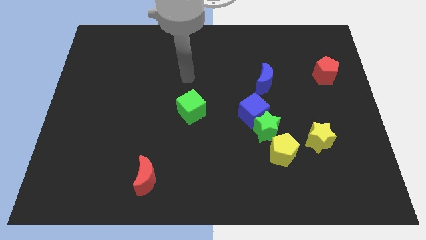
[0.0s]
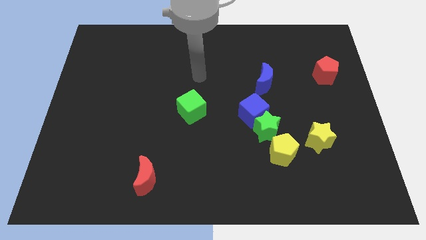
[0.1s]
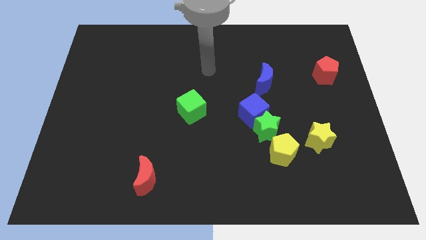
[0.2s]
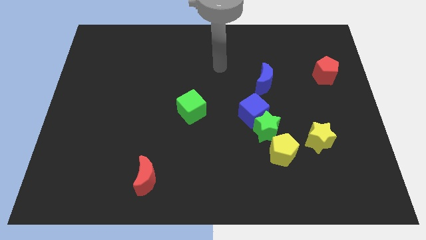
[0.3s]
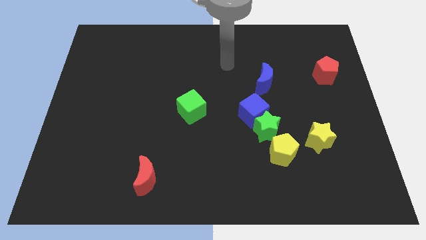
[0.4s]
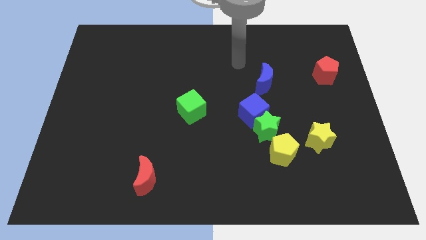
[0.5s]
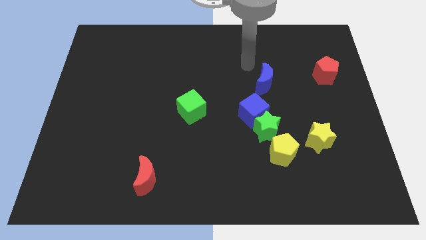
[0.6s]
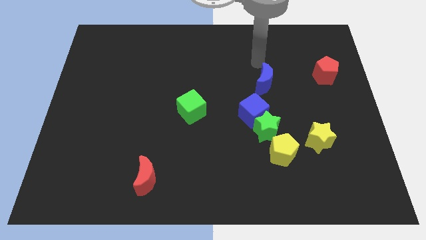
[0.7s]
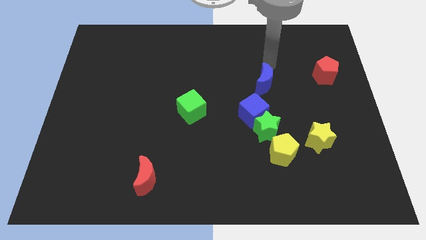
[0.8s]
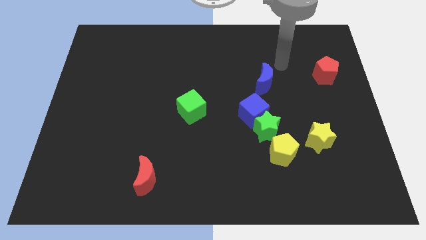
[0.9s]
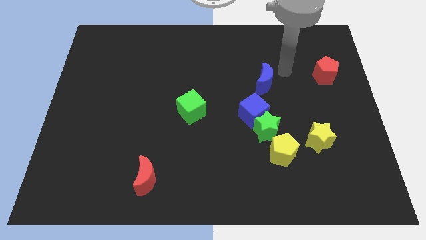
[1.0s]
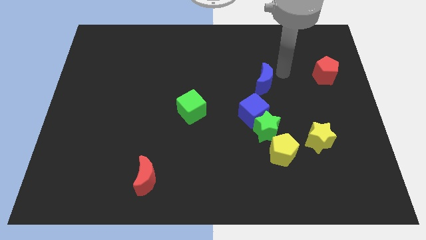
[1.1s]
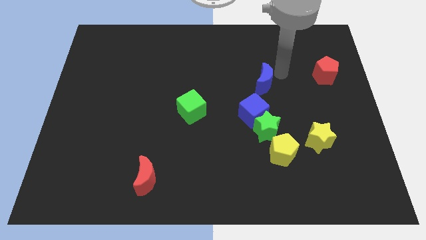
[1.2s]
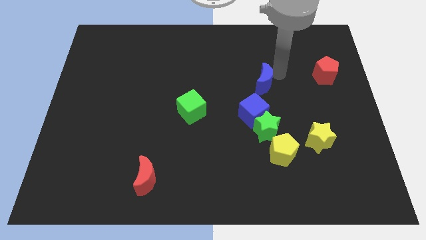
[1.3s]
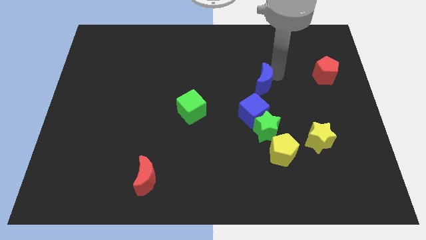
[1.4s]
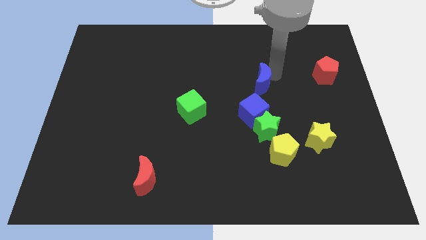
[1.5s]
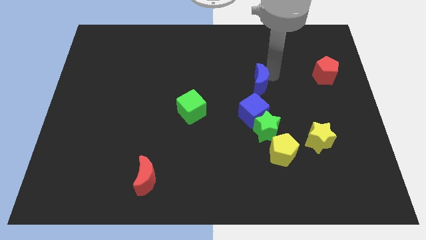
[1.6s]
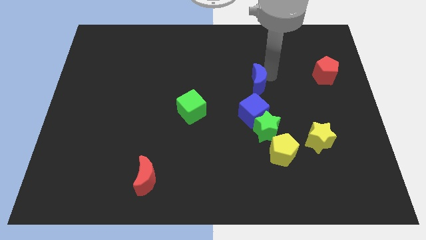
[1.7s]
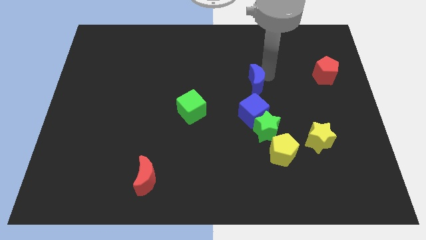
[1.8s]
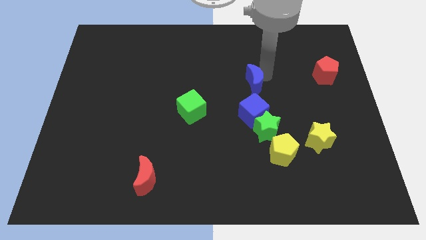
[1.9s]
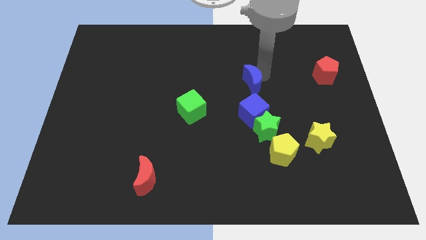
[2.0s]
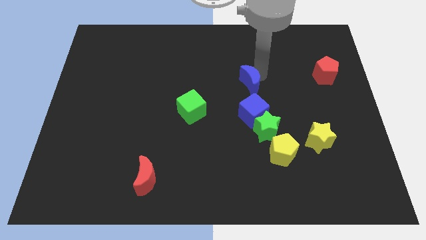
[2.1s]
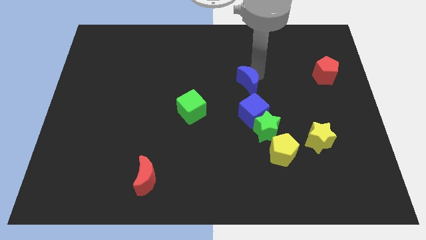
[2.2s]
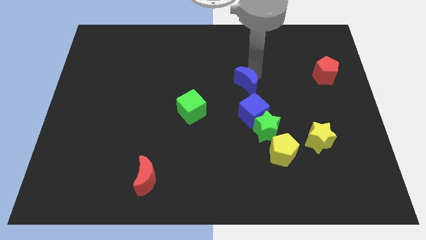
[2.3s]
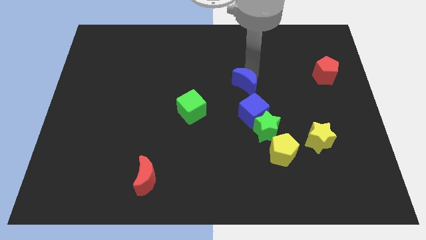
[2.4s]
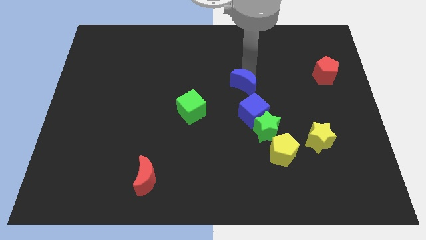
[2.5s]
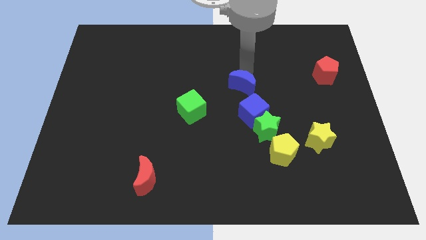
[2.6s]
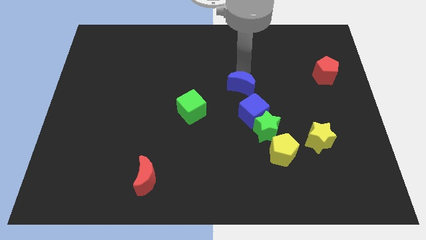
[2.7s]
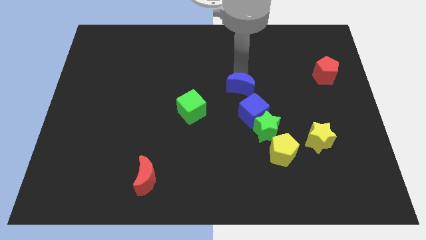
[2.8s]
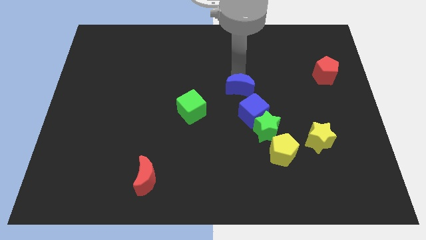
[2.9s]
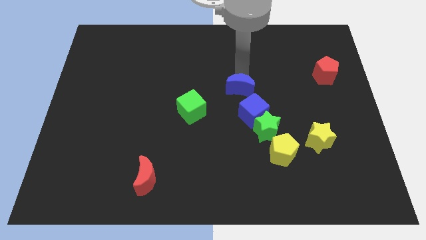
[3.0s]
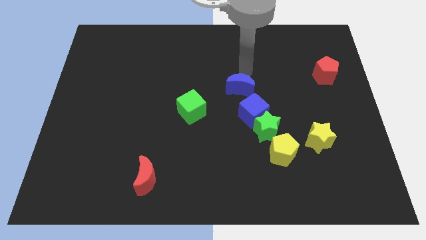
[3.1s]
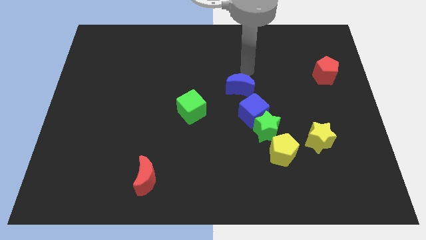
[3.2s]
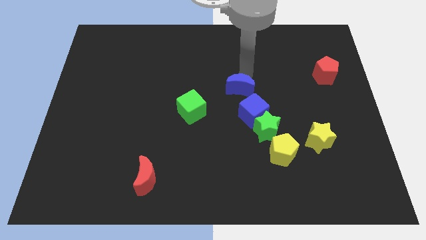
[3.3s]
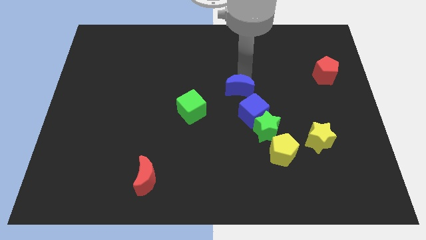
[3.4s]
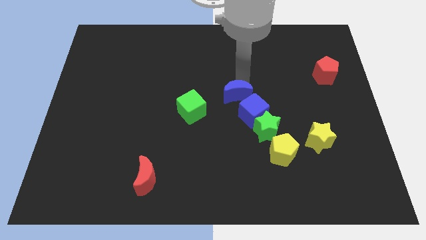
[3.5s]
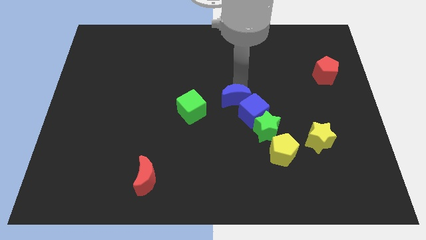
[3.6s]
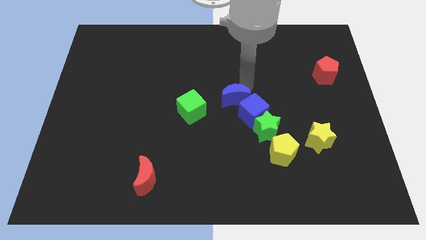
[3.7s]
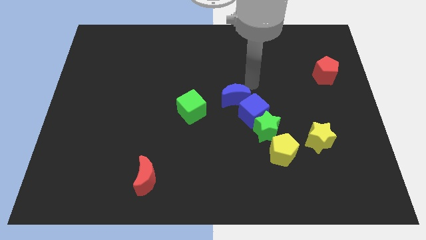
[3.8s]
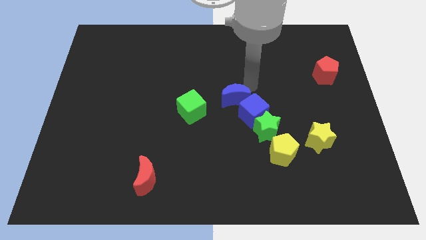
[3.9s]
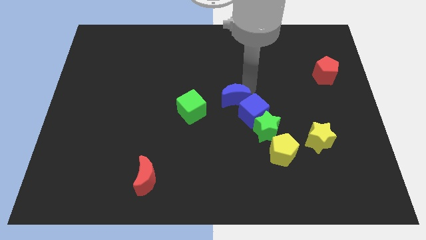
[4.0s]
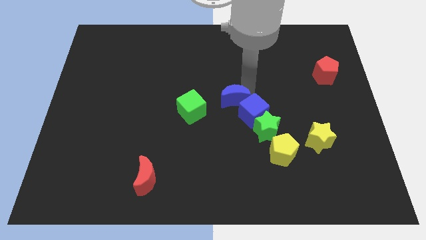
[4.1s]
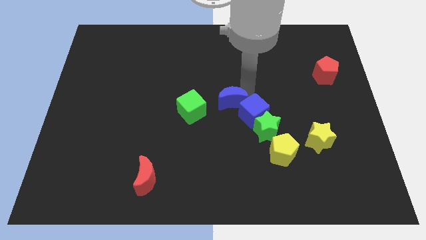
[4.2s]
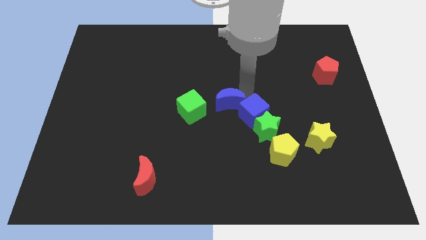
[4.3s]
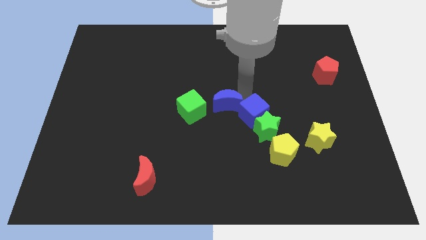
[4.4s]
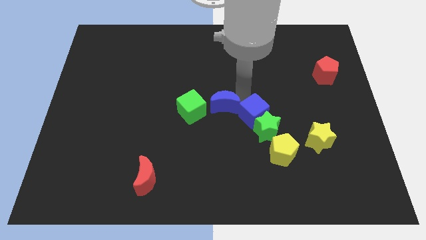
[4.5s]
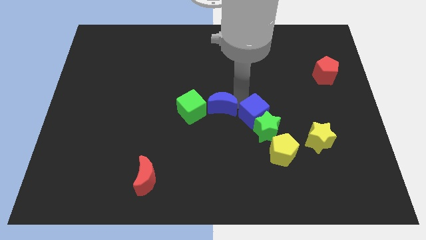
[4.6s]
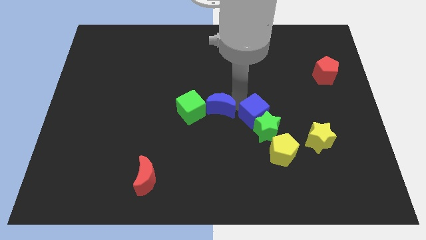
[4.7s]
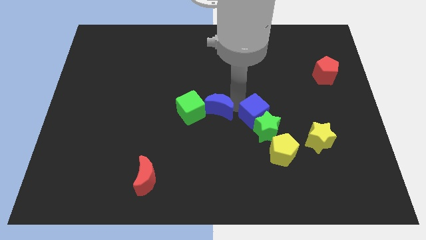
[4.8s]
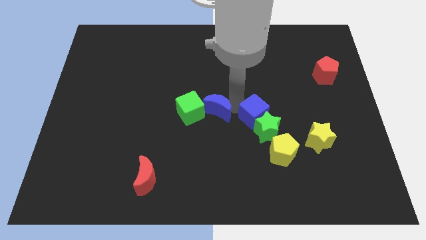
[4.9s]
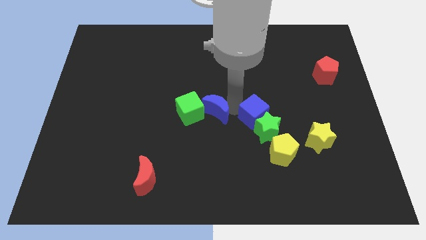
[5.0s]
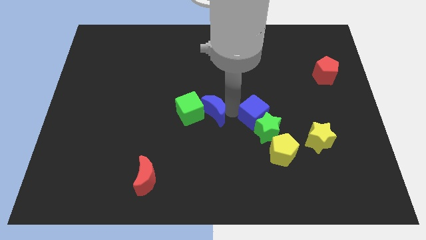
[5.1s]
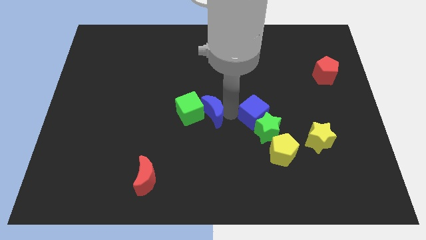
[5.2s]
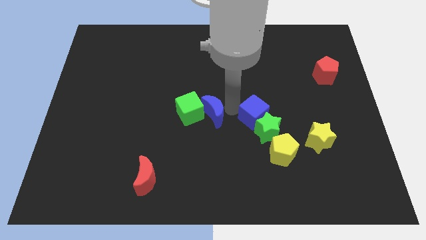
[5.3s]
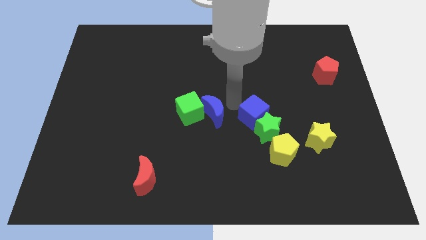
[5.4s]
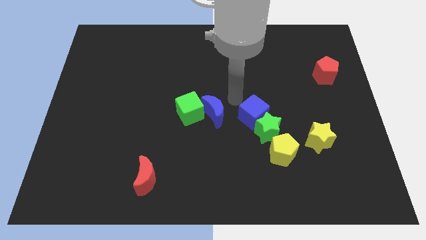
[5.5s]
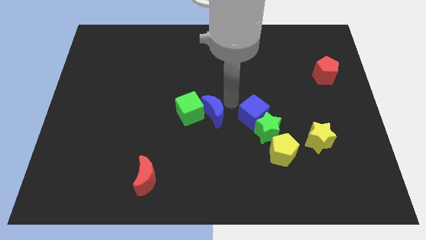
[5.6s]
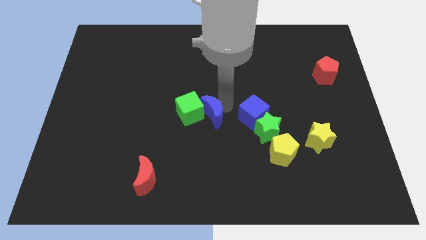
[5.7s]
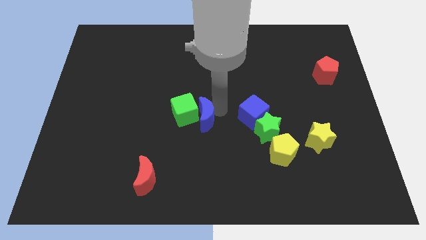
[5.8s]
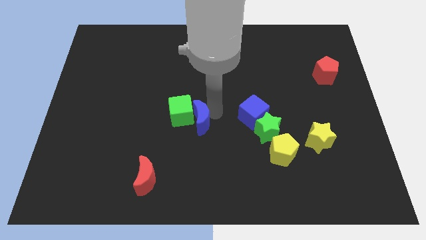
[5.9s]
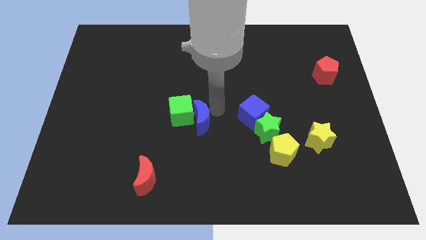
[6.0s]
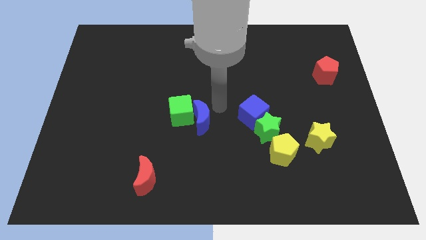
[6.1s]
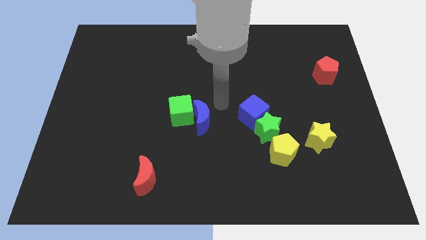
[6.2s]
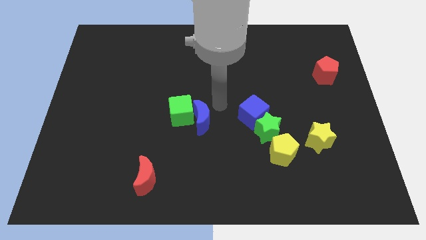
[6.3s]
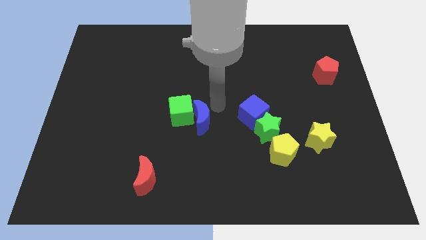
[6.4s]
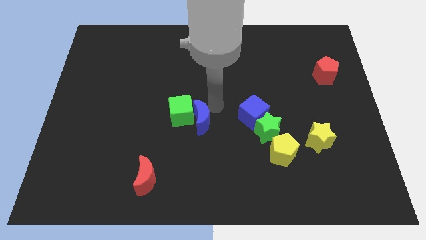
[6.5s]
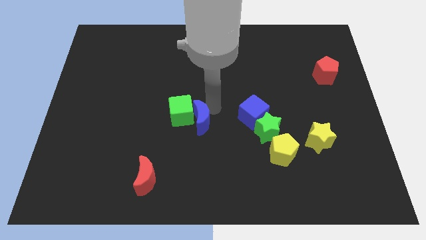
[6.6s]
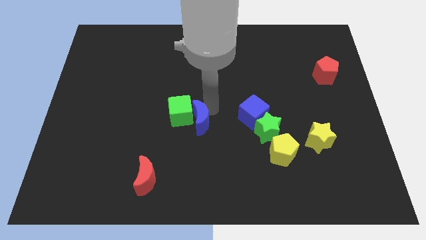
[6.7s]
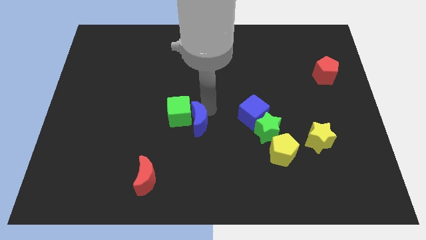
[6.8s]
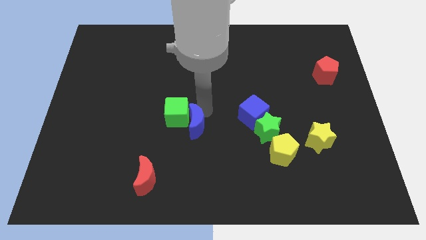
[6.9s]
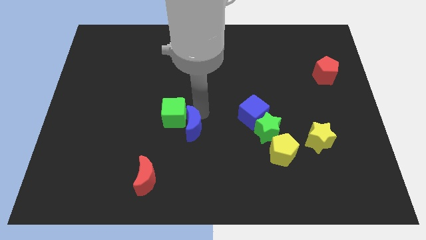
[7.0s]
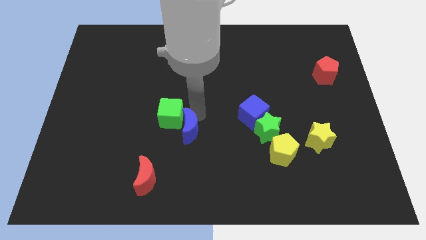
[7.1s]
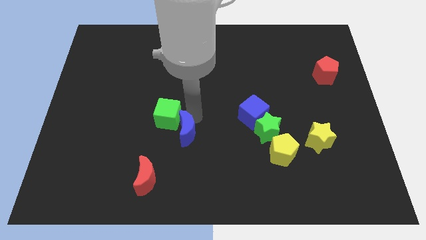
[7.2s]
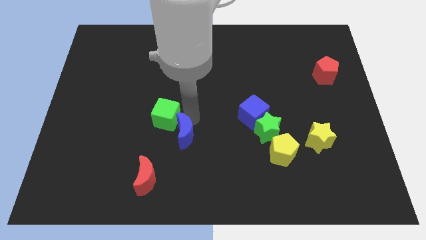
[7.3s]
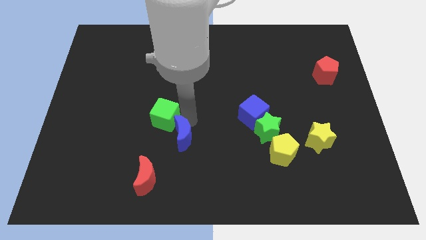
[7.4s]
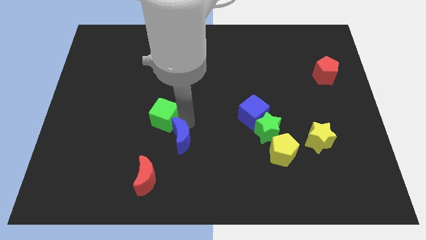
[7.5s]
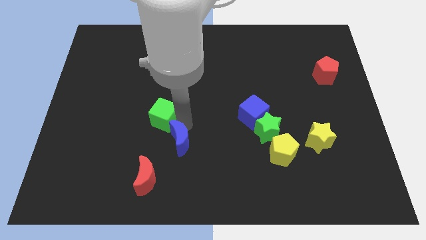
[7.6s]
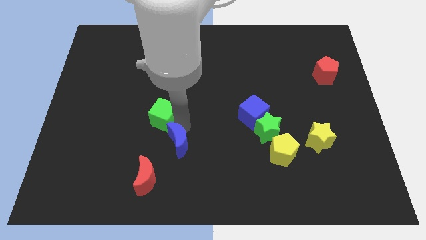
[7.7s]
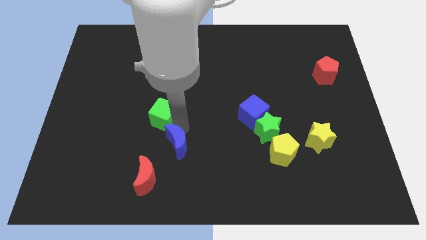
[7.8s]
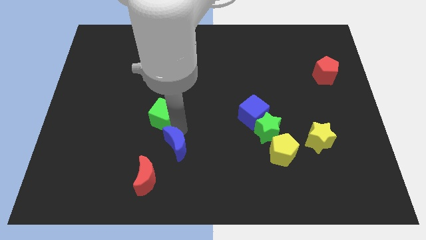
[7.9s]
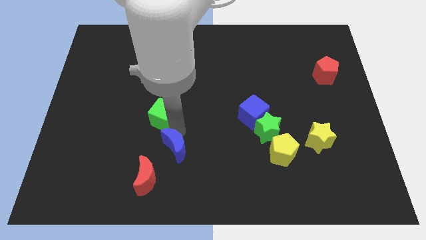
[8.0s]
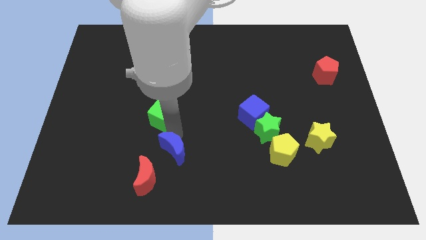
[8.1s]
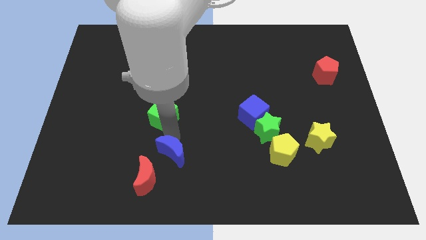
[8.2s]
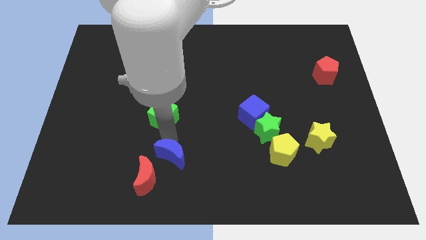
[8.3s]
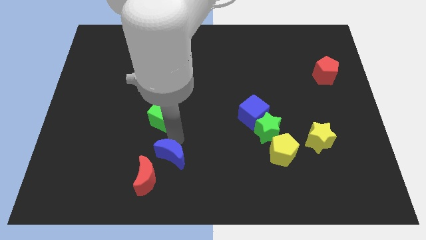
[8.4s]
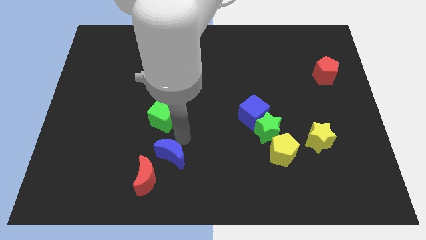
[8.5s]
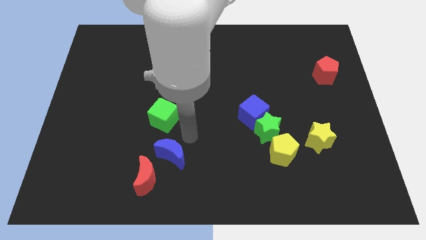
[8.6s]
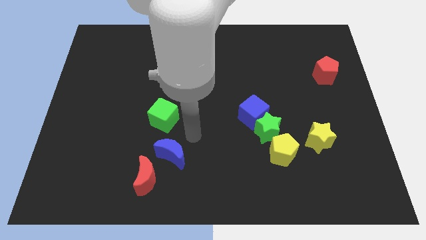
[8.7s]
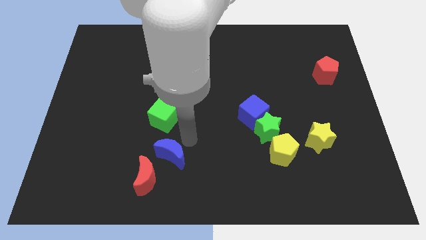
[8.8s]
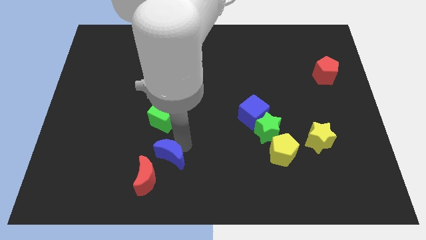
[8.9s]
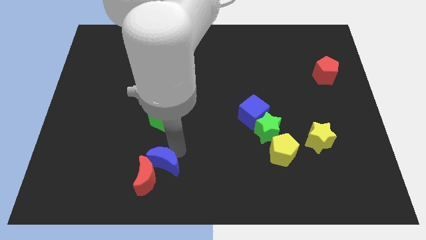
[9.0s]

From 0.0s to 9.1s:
push the blue moon close to the red moon
